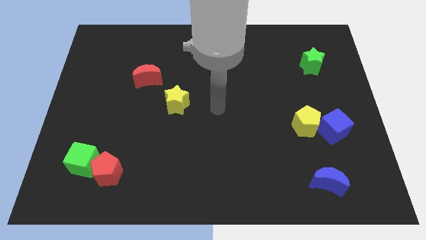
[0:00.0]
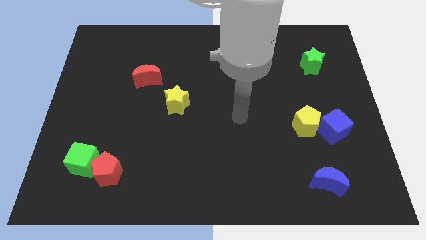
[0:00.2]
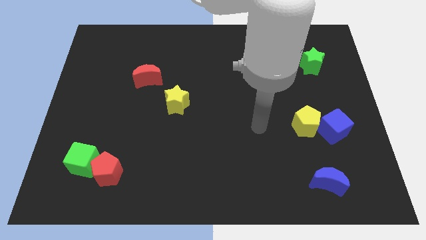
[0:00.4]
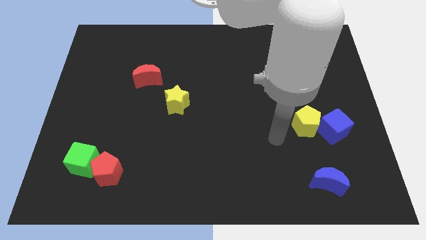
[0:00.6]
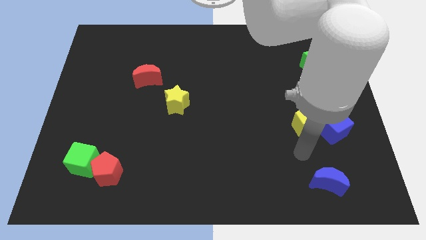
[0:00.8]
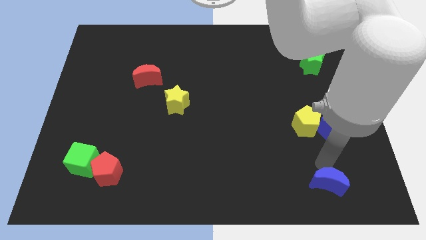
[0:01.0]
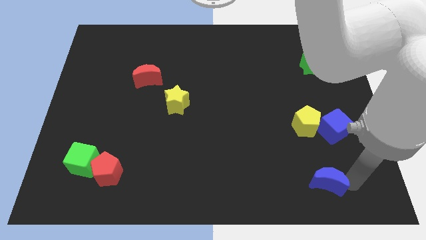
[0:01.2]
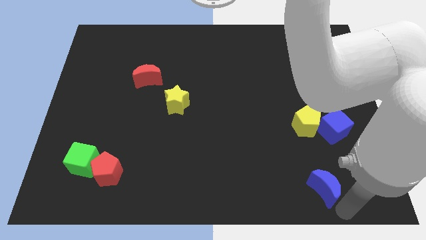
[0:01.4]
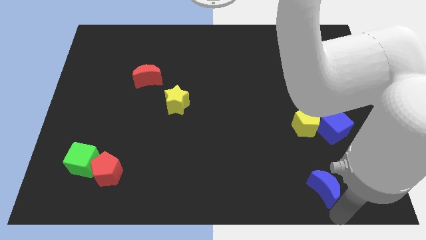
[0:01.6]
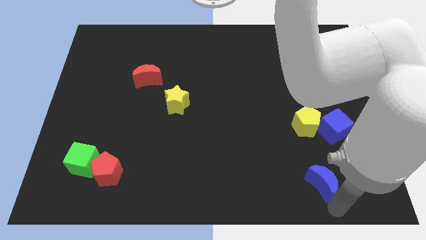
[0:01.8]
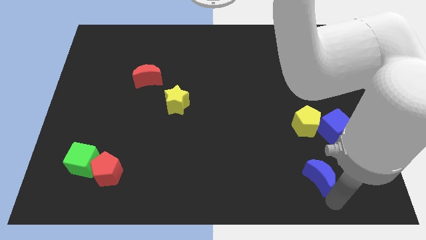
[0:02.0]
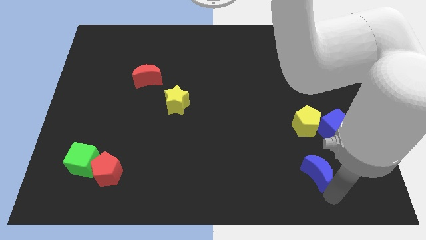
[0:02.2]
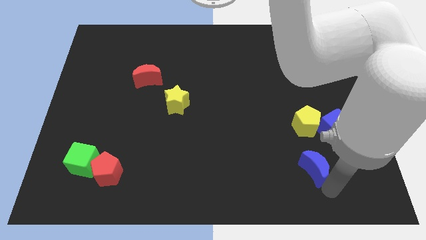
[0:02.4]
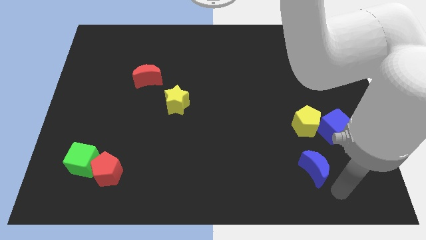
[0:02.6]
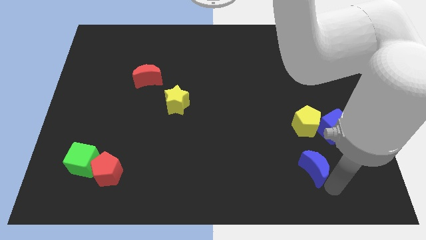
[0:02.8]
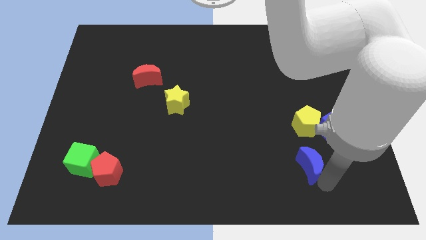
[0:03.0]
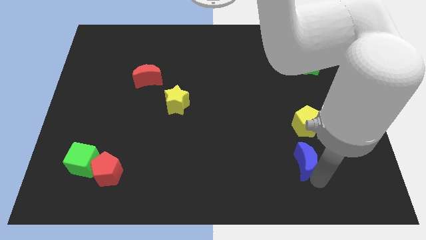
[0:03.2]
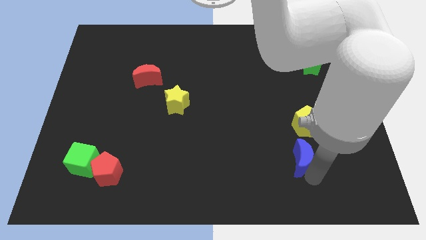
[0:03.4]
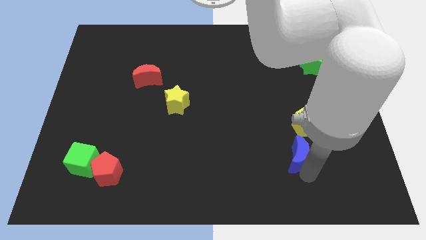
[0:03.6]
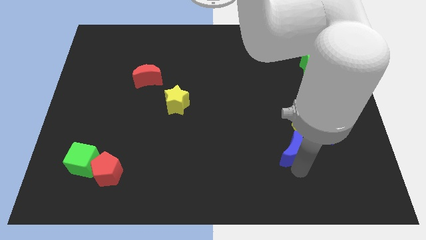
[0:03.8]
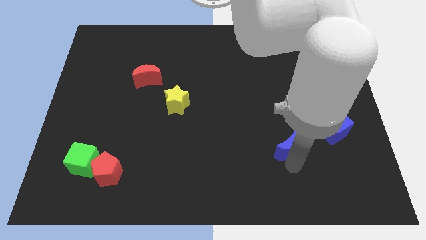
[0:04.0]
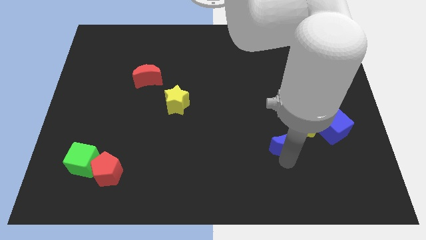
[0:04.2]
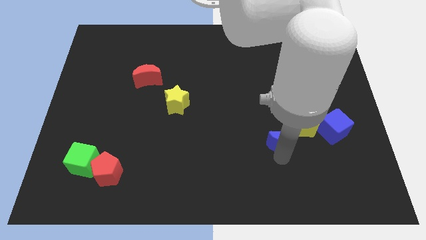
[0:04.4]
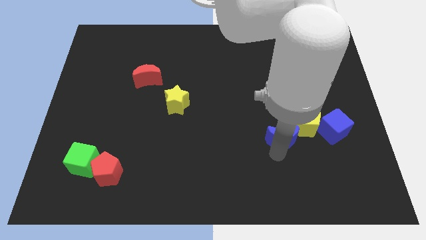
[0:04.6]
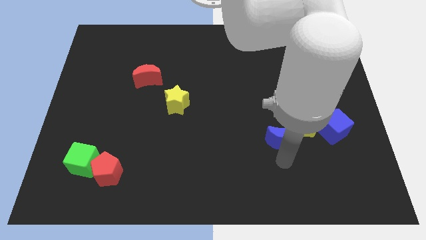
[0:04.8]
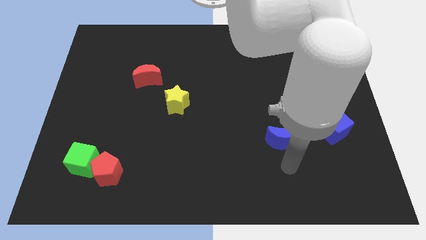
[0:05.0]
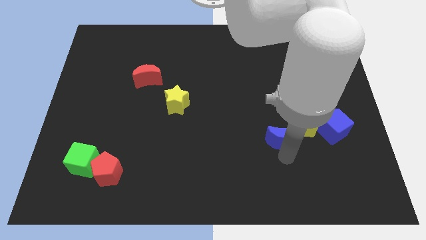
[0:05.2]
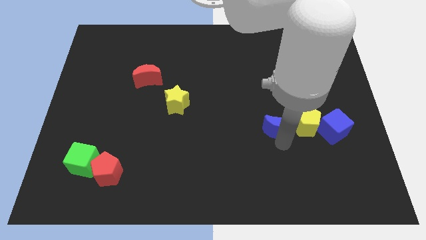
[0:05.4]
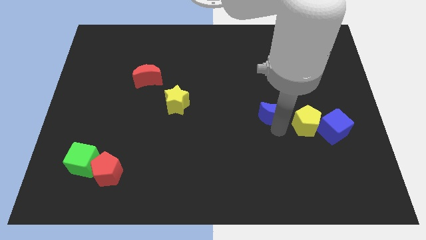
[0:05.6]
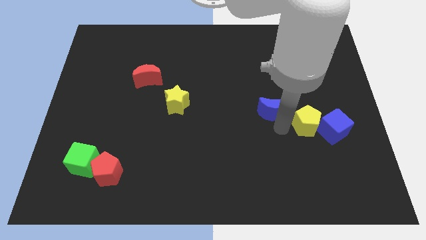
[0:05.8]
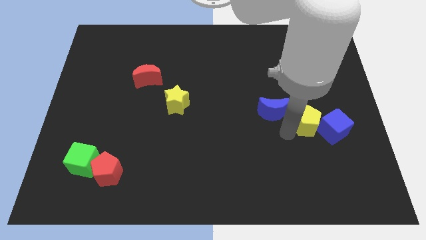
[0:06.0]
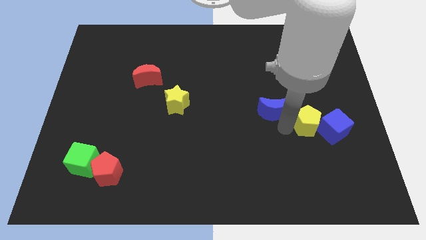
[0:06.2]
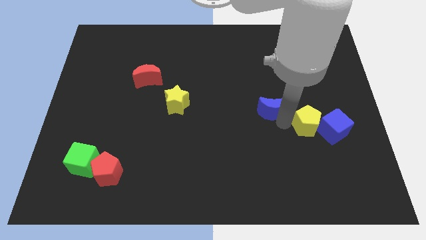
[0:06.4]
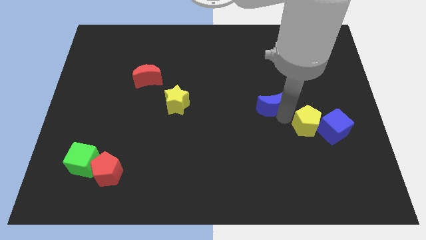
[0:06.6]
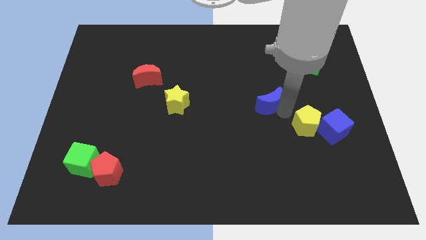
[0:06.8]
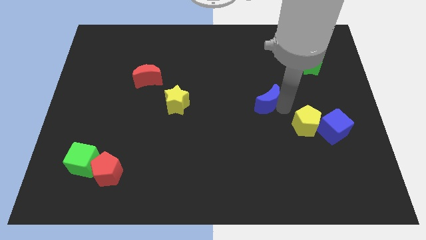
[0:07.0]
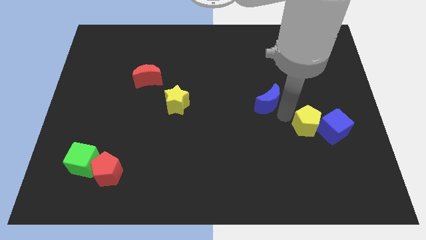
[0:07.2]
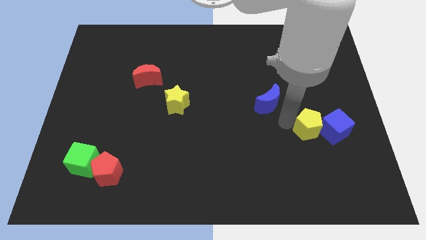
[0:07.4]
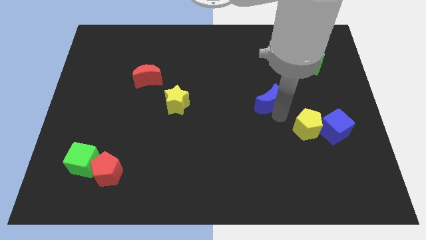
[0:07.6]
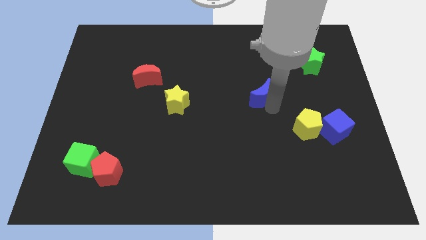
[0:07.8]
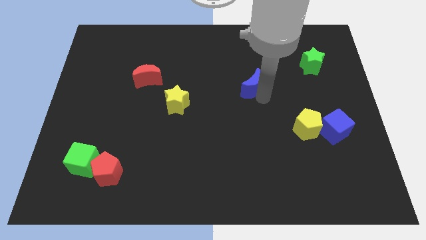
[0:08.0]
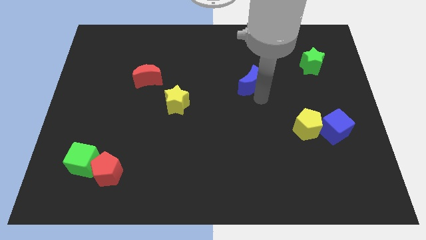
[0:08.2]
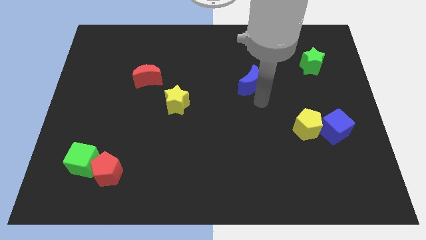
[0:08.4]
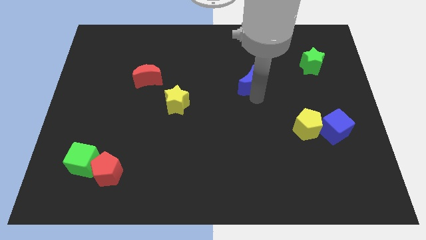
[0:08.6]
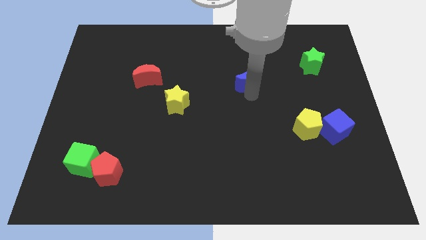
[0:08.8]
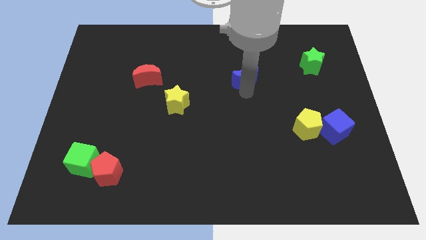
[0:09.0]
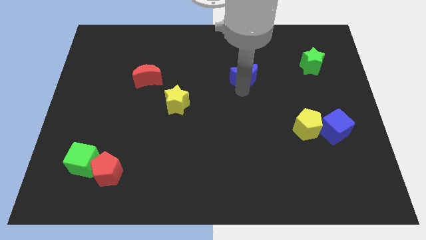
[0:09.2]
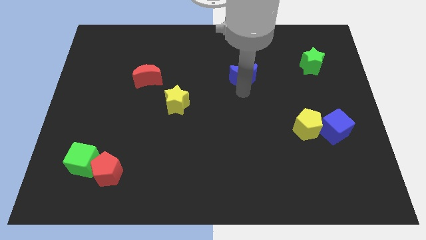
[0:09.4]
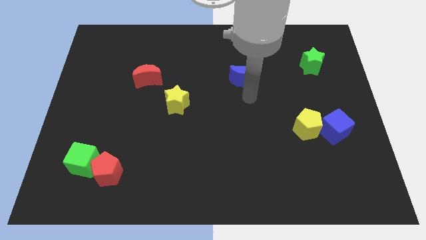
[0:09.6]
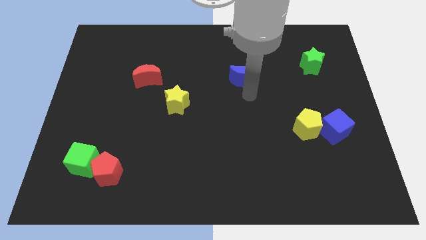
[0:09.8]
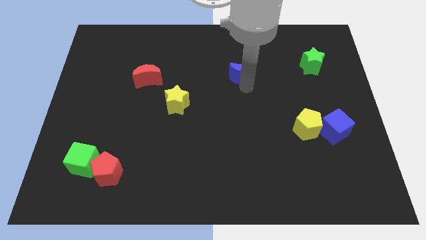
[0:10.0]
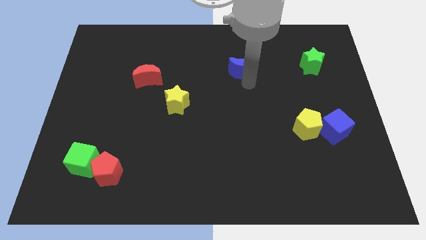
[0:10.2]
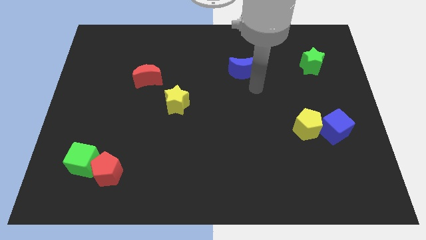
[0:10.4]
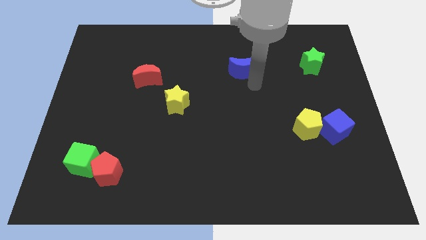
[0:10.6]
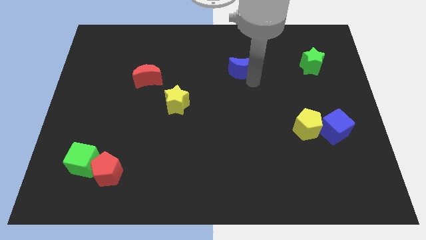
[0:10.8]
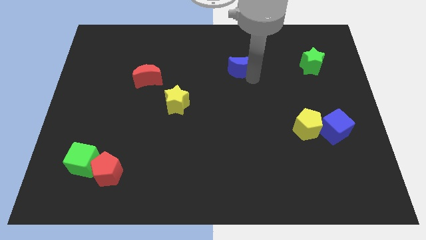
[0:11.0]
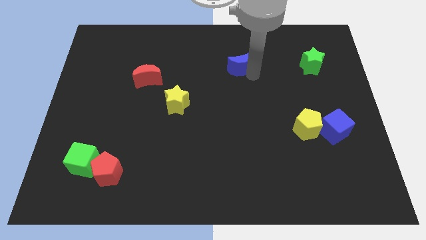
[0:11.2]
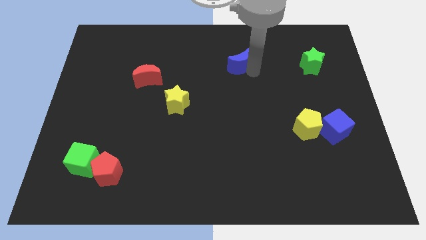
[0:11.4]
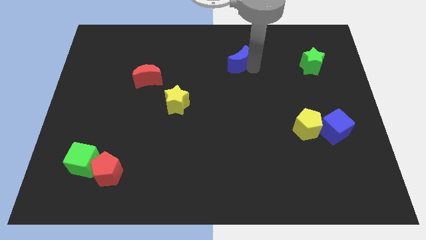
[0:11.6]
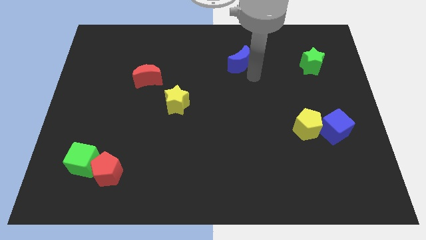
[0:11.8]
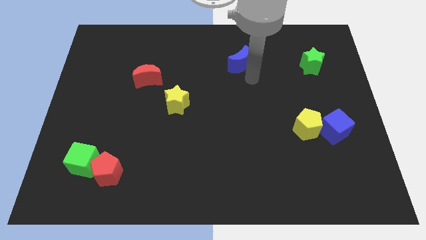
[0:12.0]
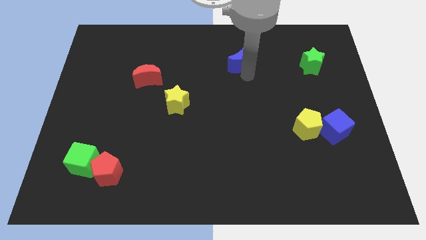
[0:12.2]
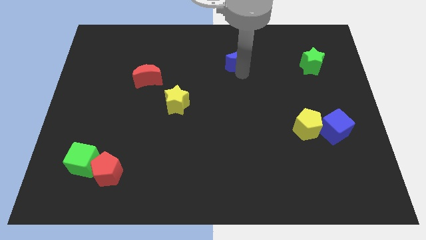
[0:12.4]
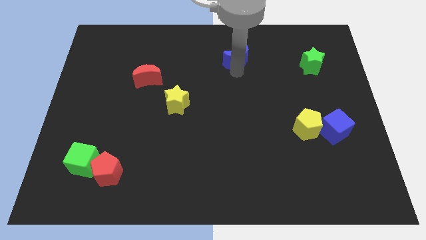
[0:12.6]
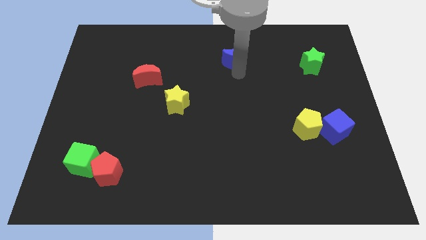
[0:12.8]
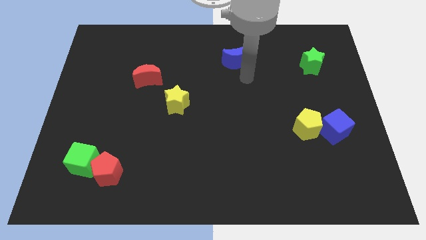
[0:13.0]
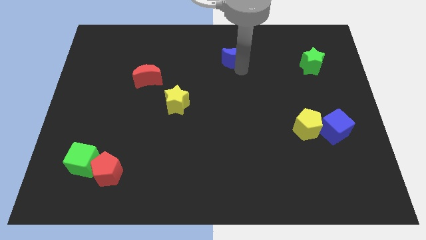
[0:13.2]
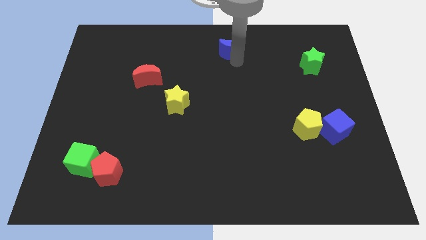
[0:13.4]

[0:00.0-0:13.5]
push the blue moon to the top side

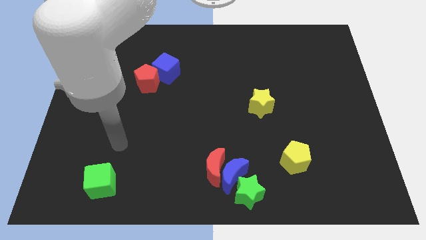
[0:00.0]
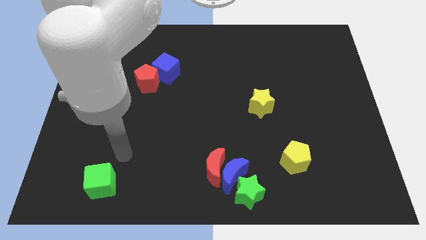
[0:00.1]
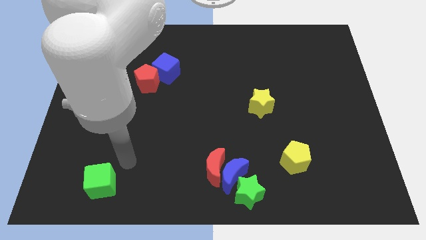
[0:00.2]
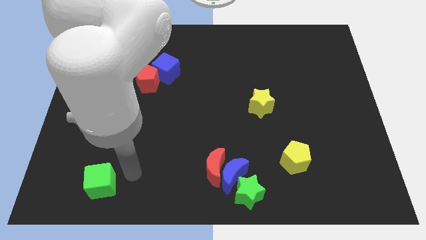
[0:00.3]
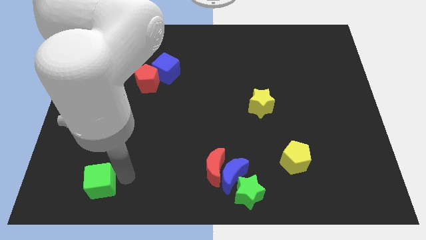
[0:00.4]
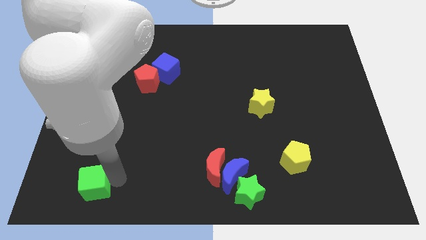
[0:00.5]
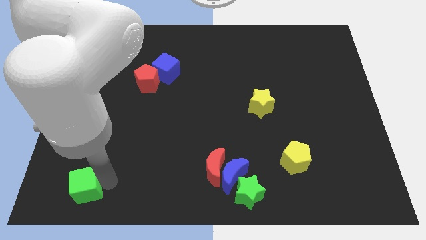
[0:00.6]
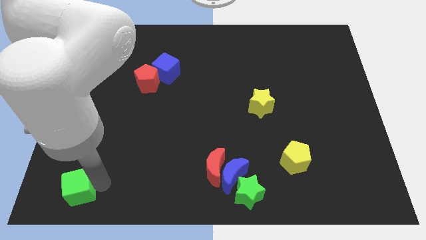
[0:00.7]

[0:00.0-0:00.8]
put the green cube to the lower left corner
